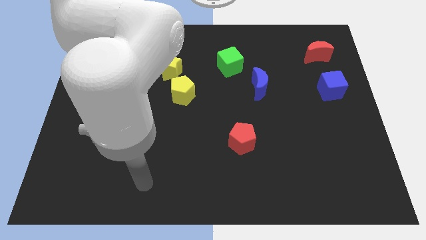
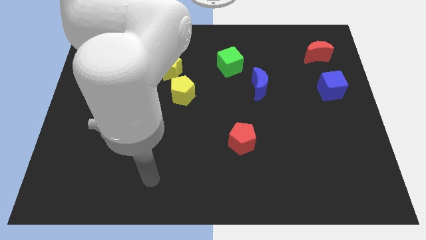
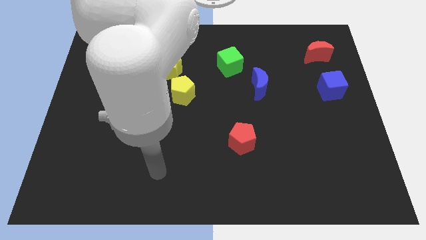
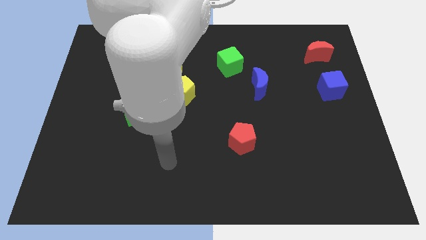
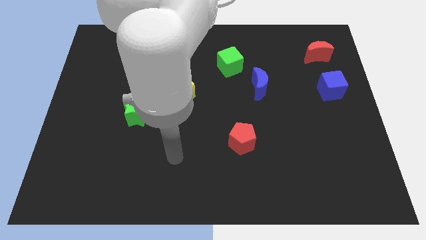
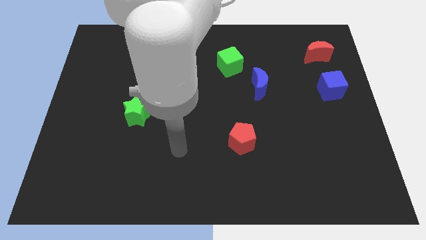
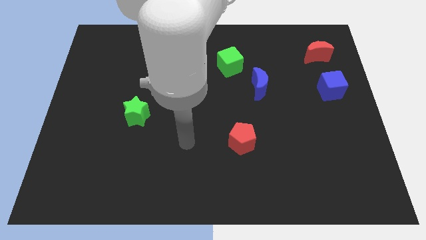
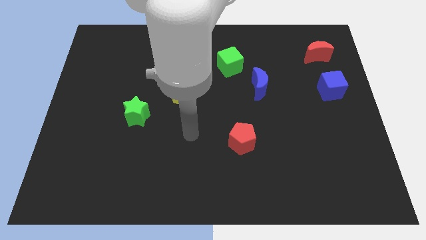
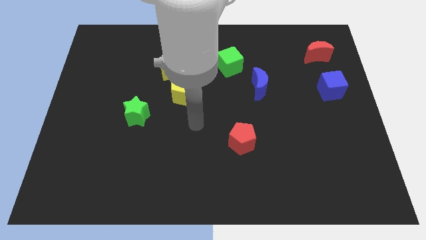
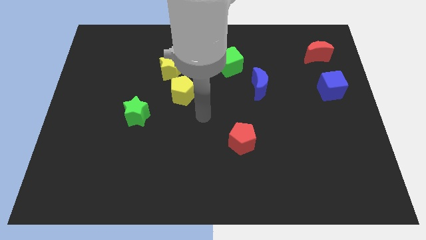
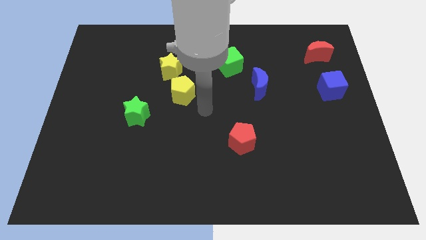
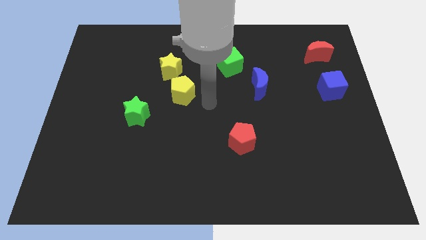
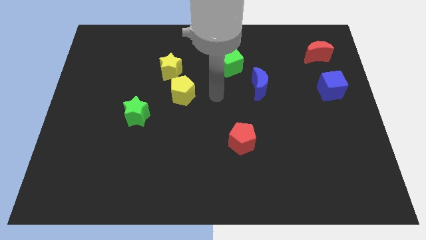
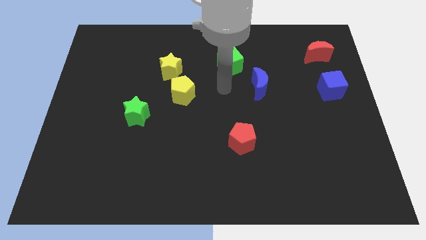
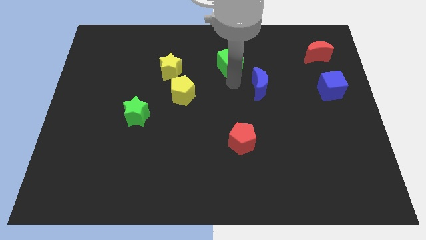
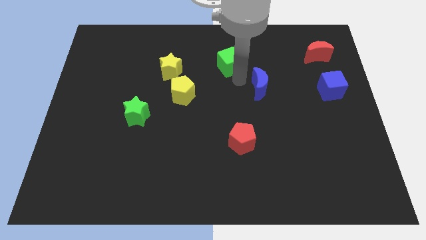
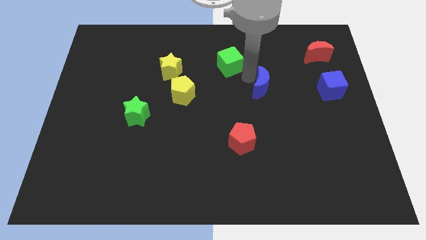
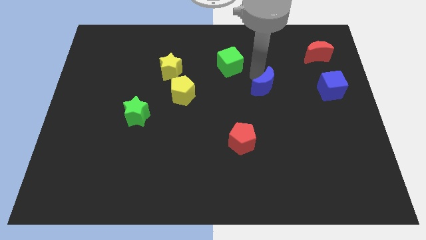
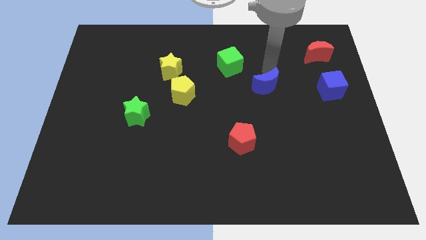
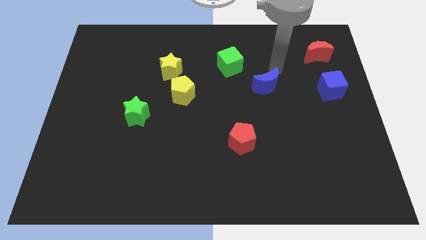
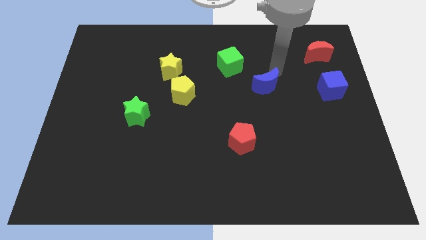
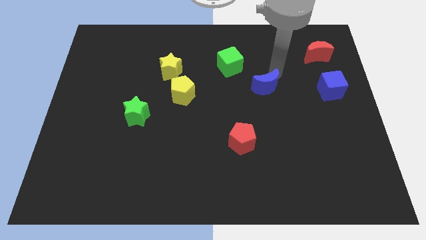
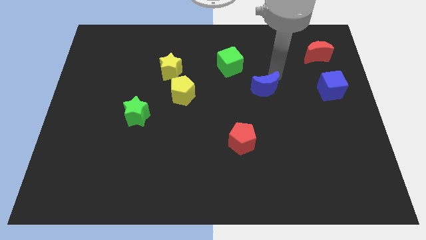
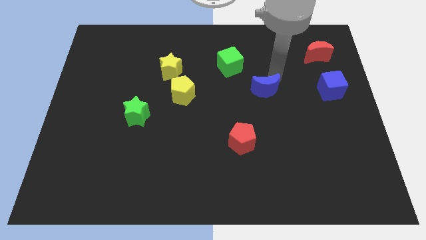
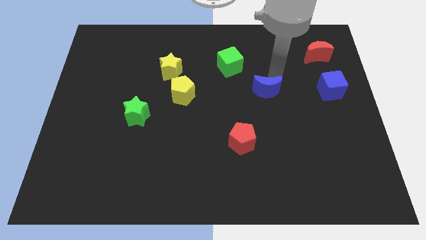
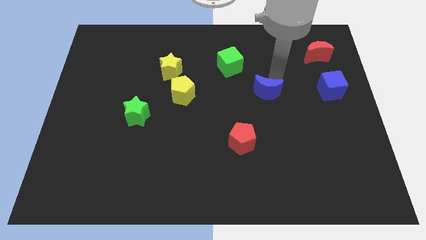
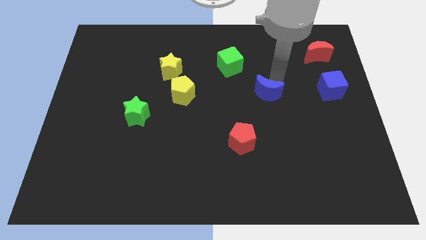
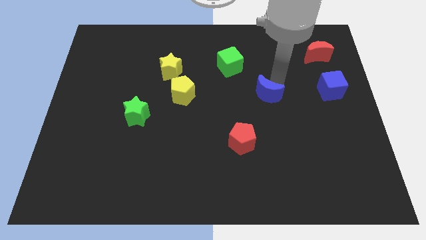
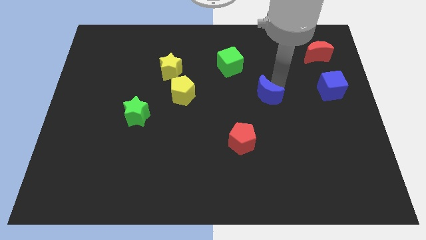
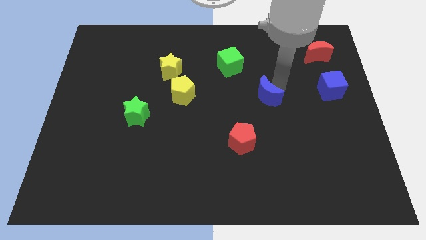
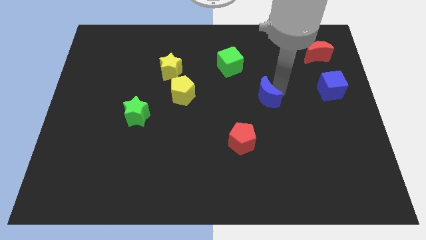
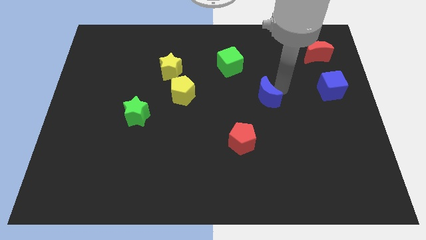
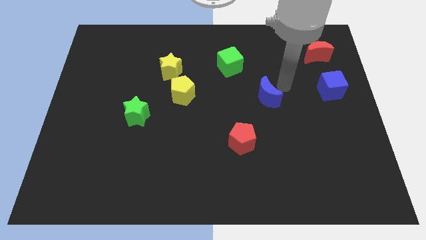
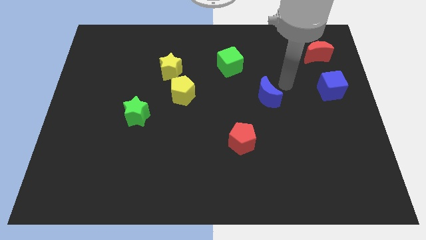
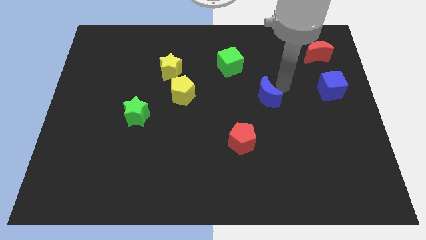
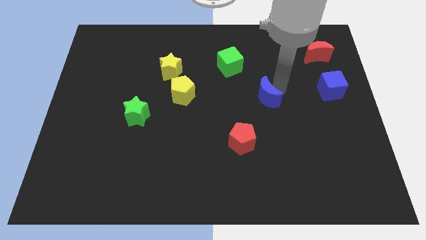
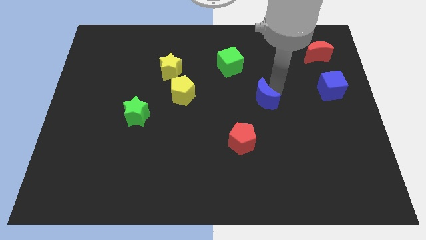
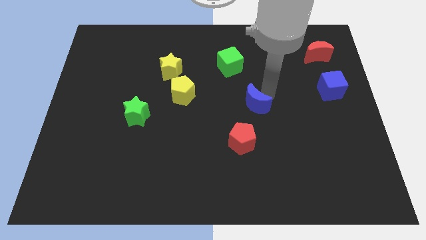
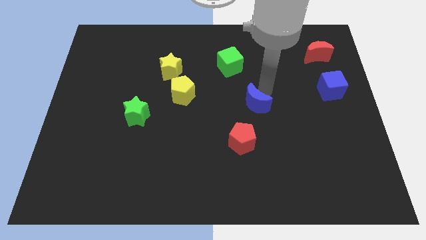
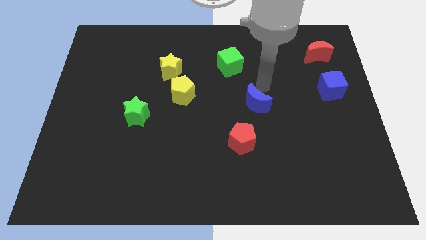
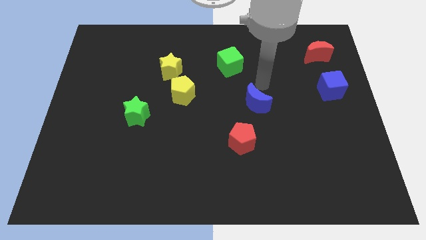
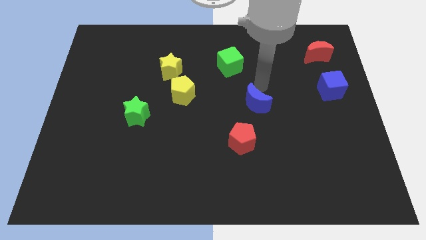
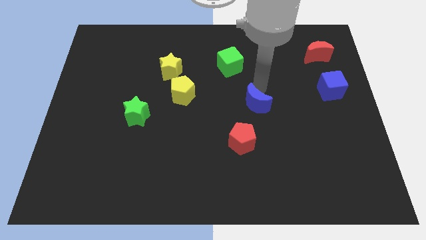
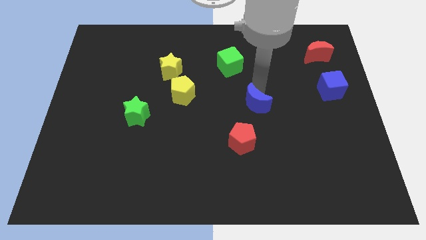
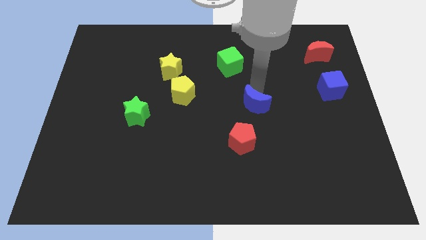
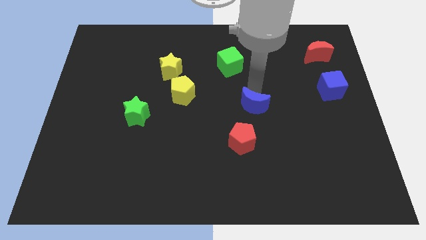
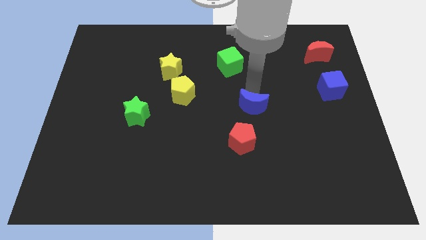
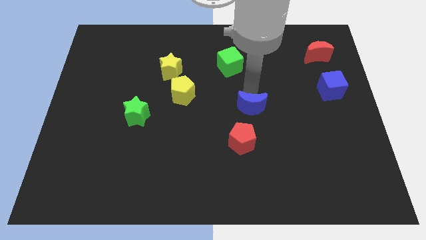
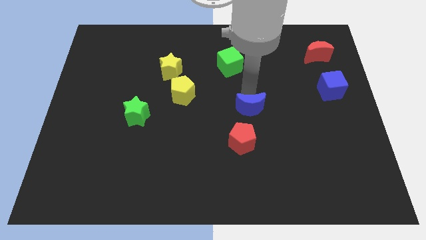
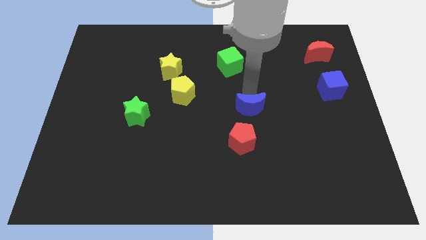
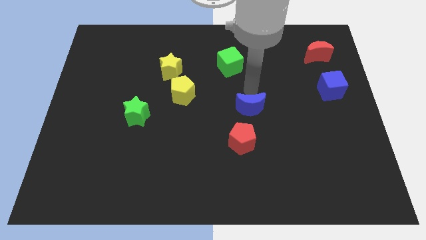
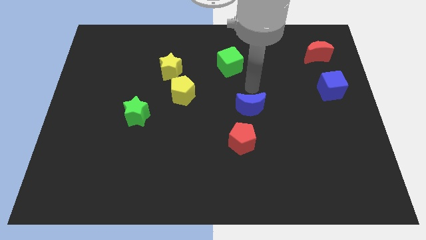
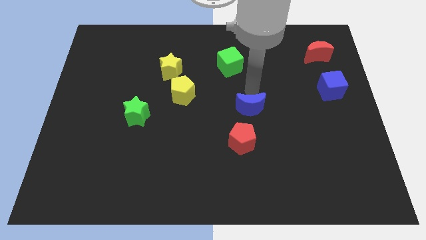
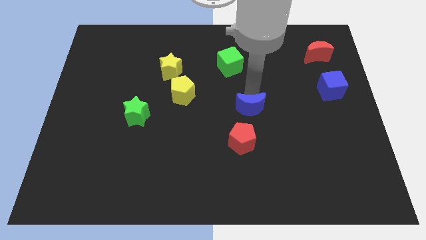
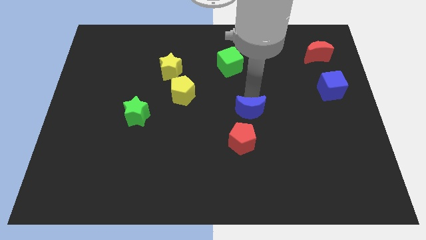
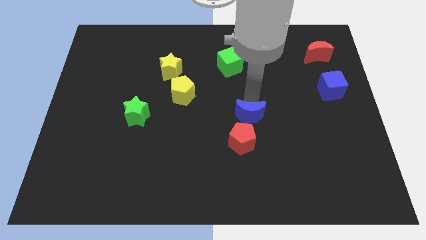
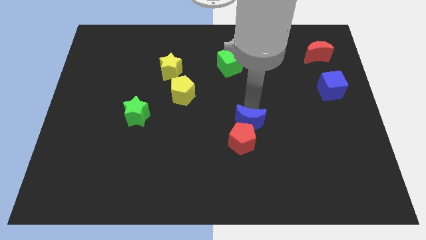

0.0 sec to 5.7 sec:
push the blue moon towards the red pentagon

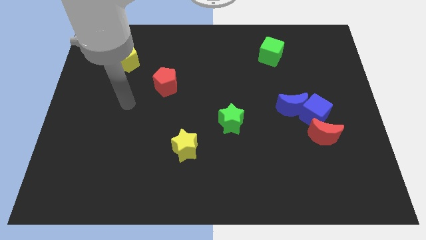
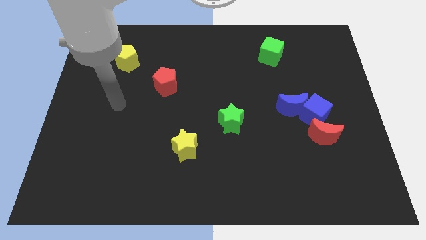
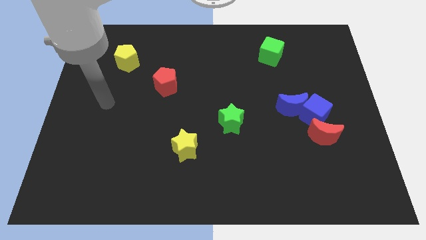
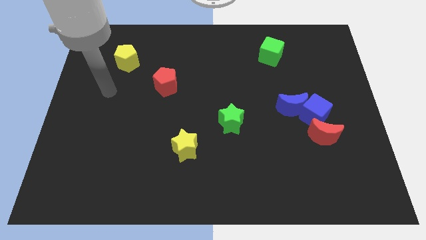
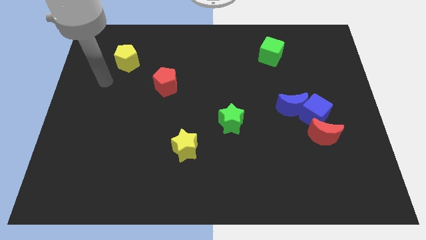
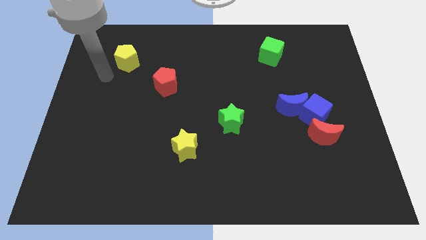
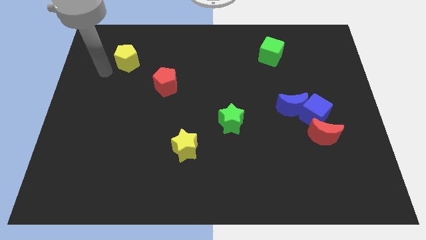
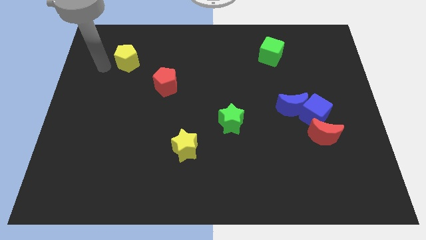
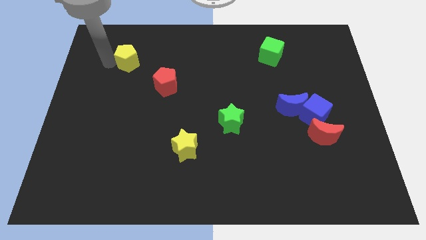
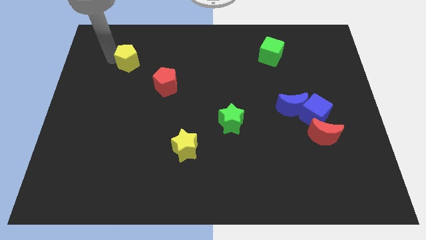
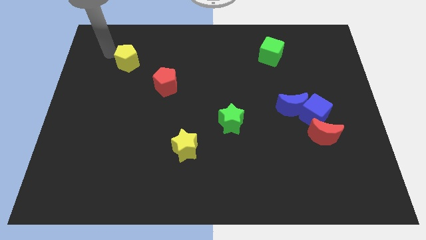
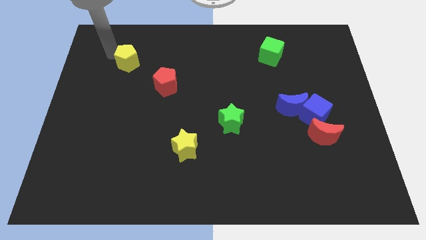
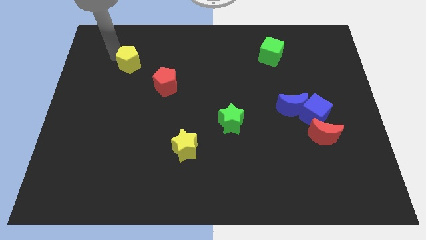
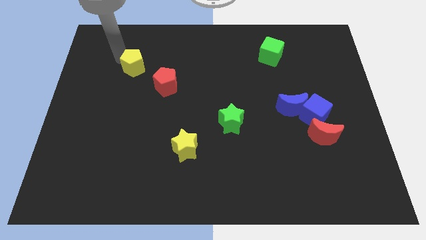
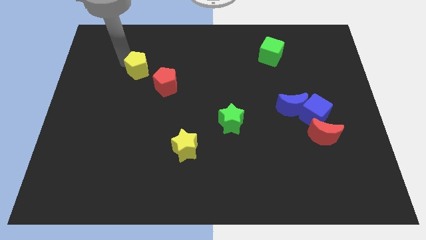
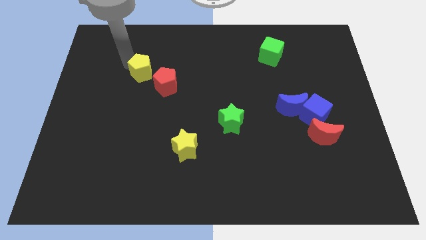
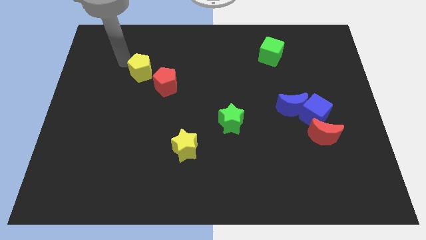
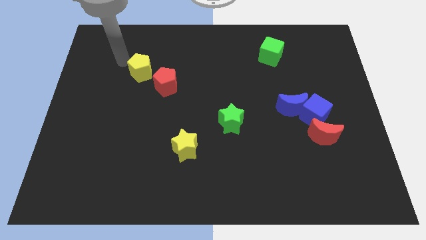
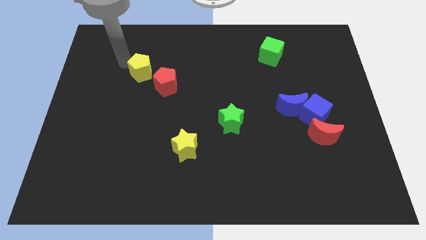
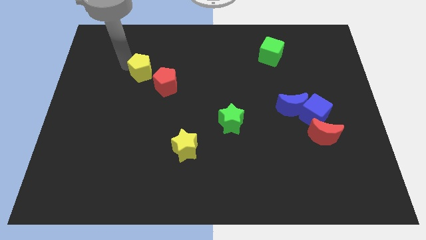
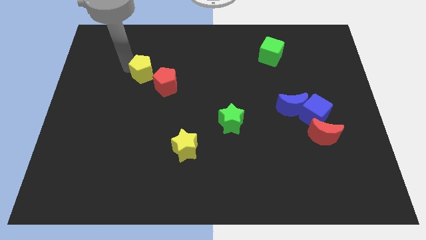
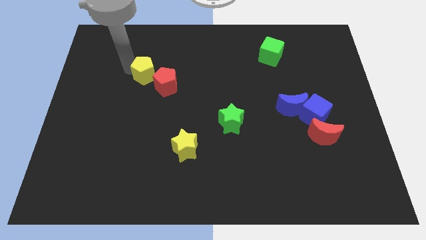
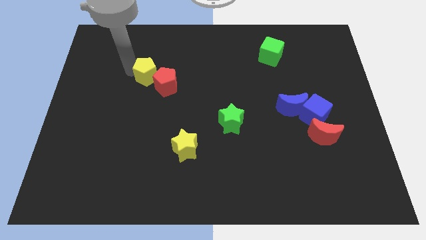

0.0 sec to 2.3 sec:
slide the yellow pentagon close to the red pentagon
